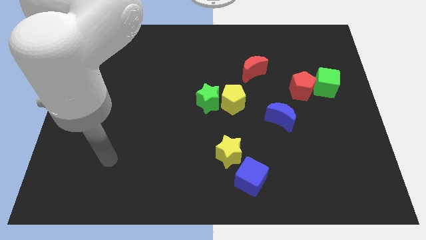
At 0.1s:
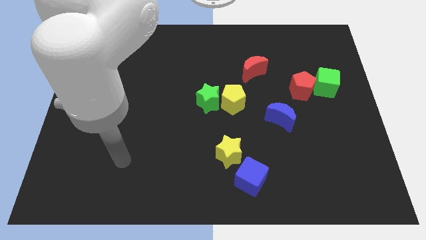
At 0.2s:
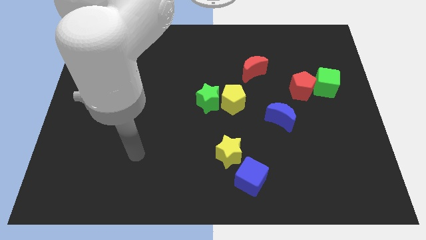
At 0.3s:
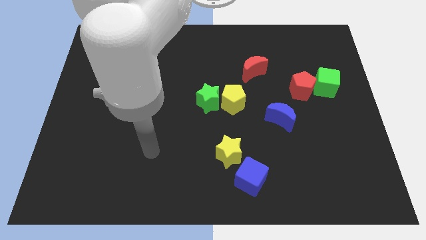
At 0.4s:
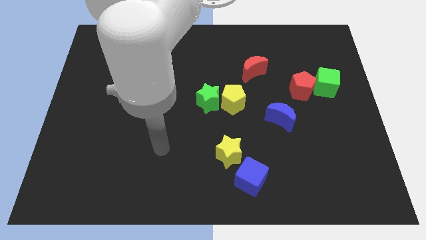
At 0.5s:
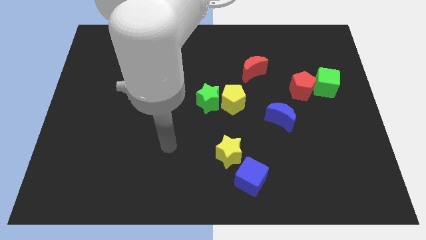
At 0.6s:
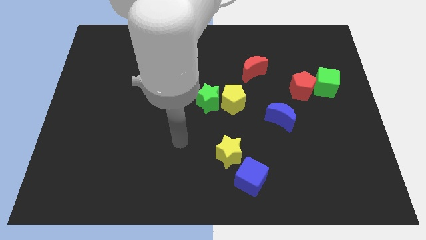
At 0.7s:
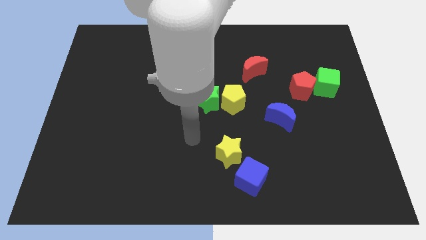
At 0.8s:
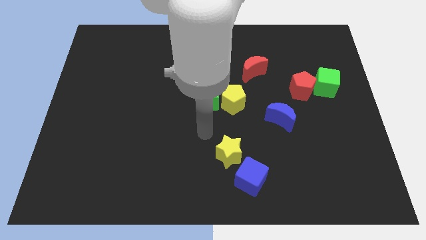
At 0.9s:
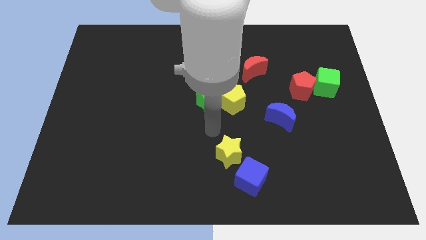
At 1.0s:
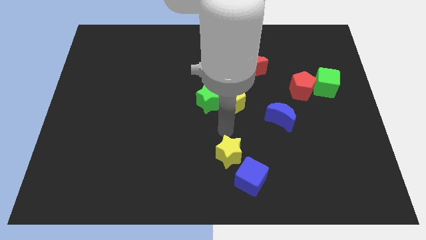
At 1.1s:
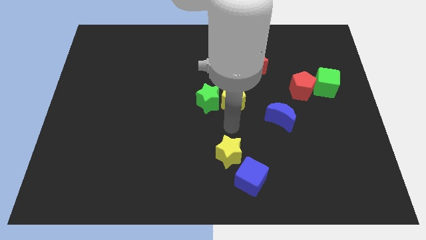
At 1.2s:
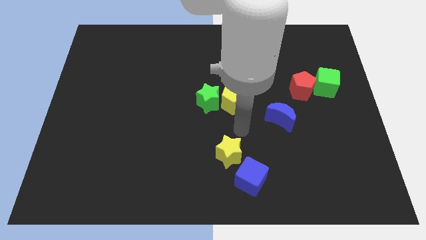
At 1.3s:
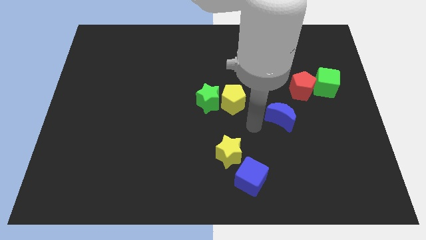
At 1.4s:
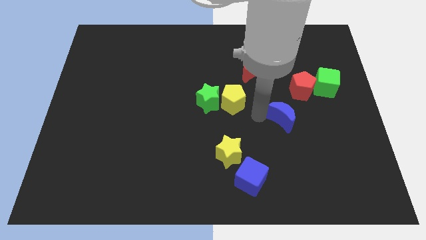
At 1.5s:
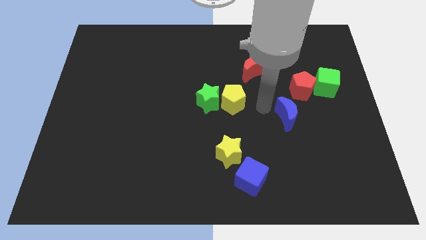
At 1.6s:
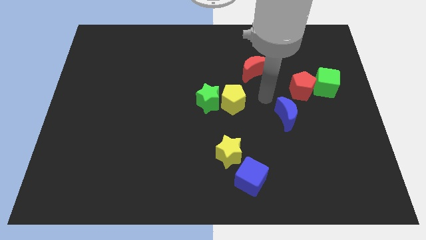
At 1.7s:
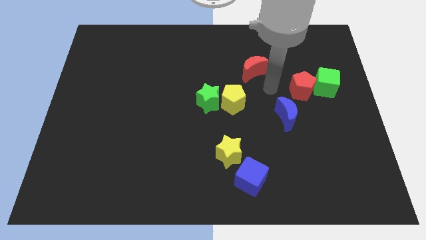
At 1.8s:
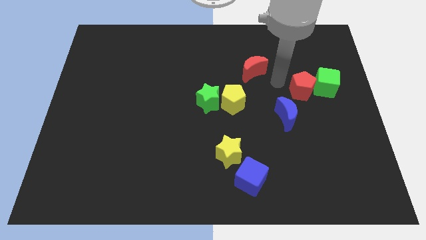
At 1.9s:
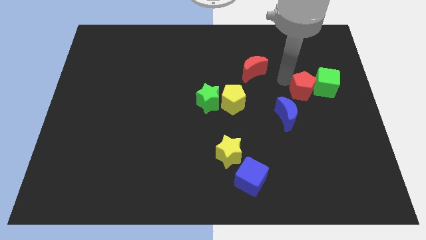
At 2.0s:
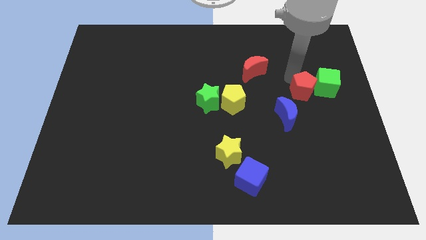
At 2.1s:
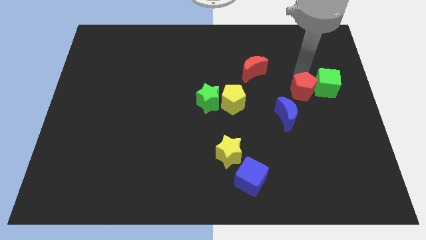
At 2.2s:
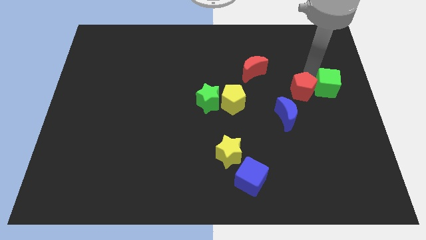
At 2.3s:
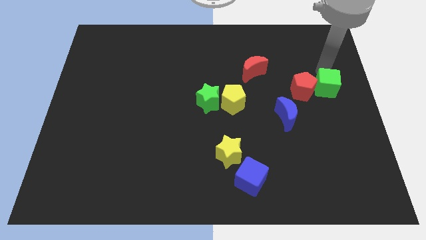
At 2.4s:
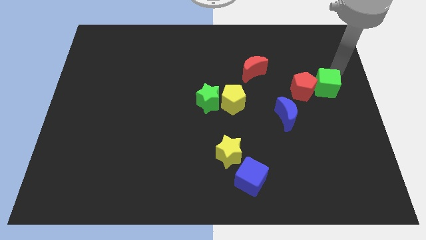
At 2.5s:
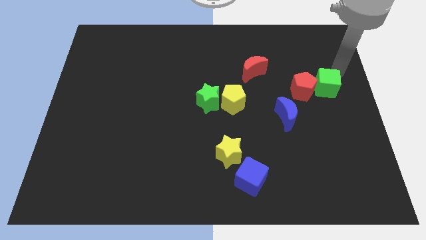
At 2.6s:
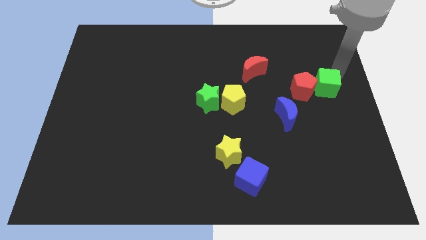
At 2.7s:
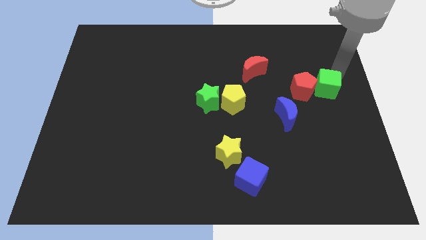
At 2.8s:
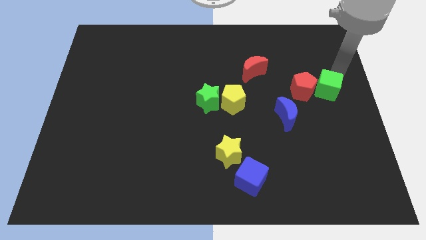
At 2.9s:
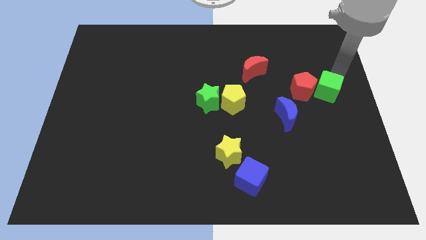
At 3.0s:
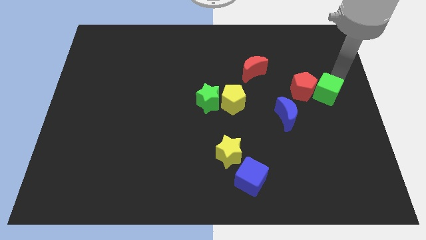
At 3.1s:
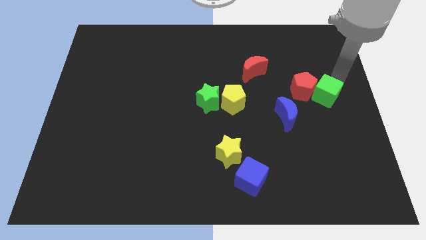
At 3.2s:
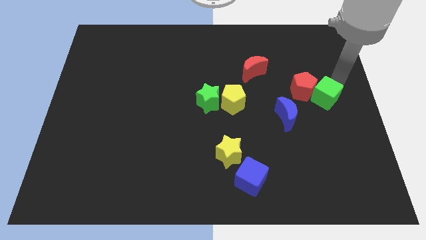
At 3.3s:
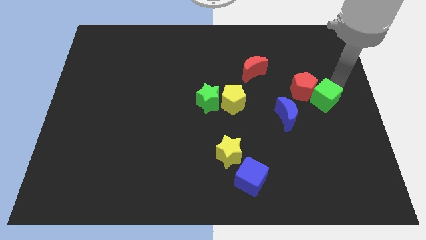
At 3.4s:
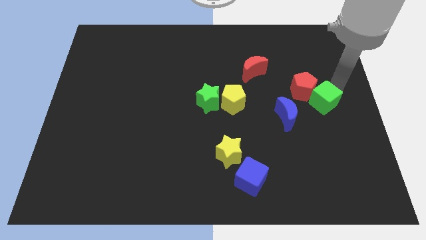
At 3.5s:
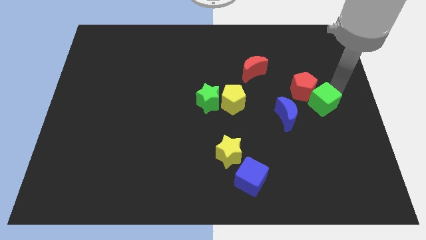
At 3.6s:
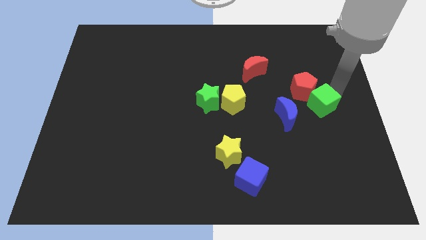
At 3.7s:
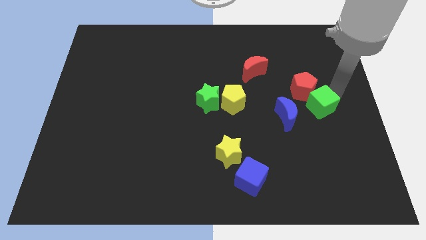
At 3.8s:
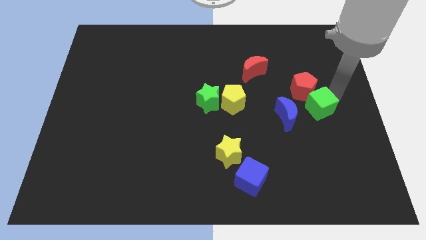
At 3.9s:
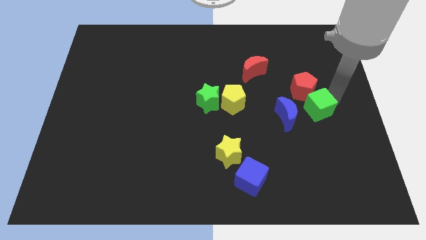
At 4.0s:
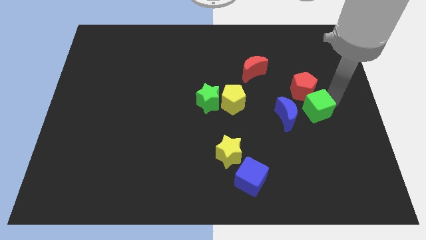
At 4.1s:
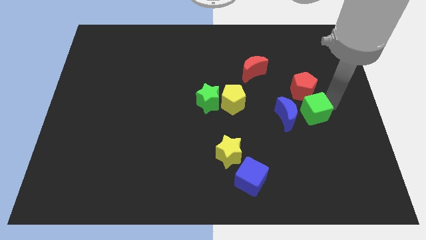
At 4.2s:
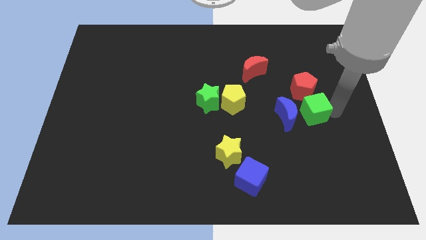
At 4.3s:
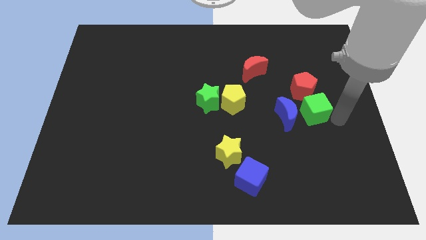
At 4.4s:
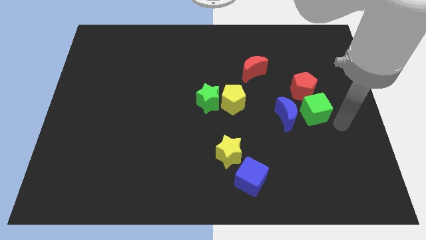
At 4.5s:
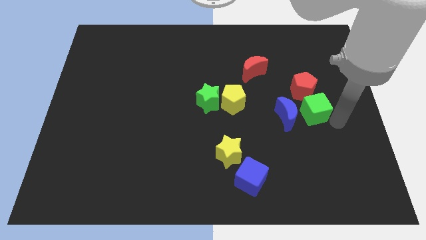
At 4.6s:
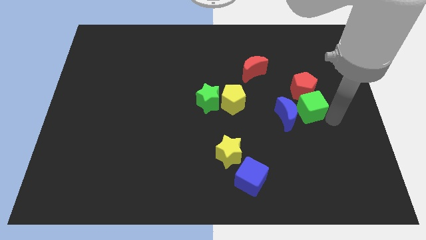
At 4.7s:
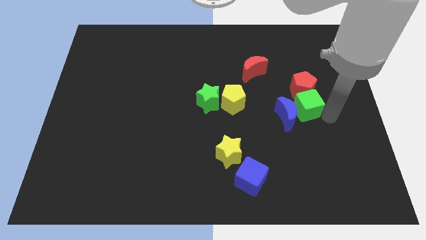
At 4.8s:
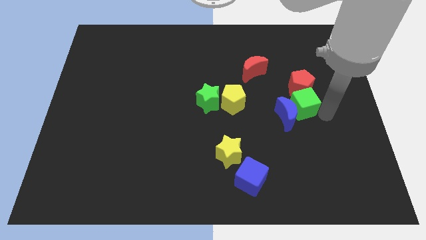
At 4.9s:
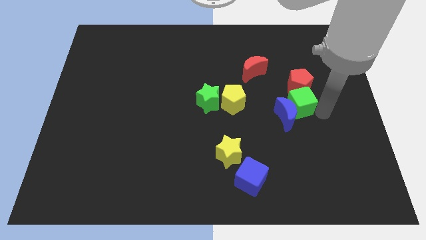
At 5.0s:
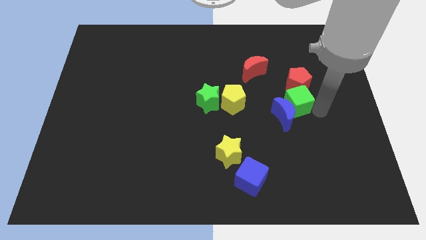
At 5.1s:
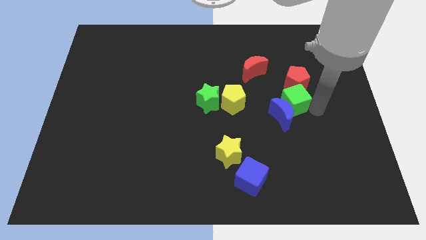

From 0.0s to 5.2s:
slightly slide the green cube left

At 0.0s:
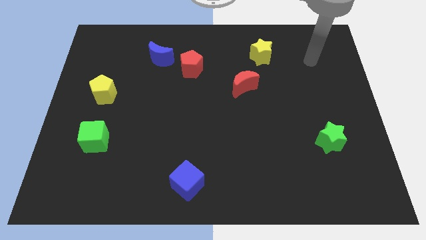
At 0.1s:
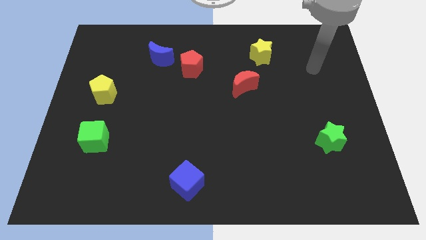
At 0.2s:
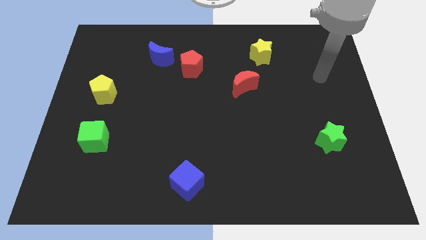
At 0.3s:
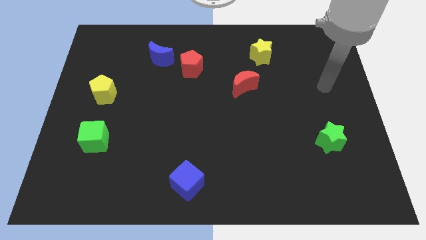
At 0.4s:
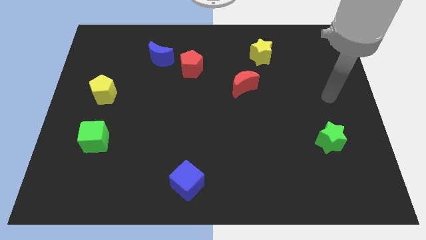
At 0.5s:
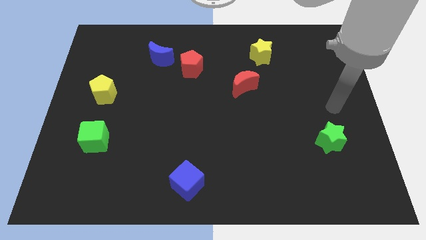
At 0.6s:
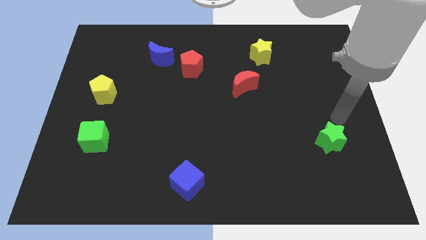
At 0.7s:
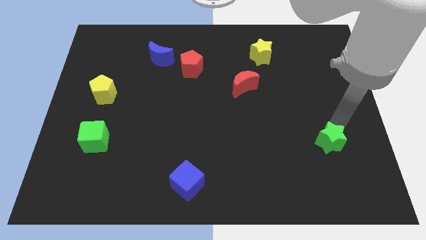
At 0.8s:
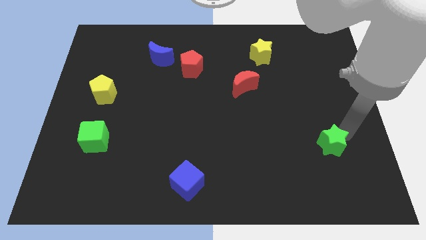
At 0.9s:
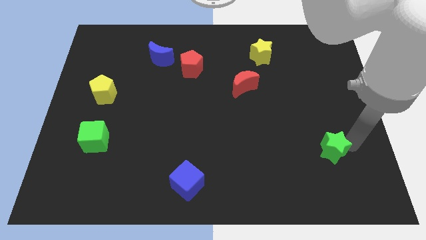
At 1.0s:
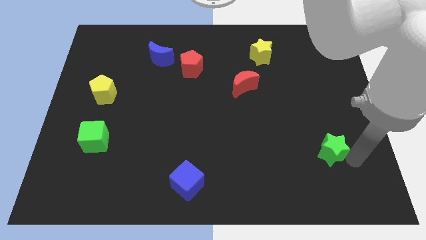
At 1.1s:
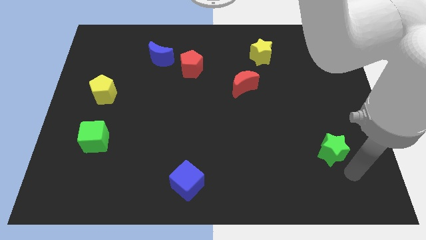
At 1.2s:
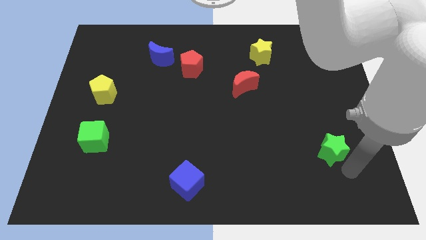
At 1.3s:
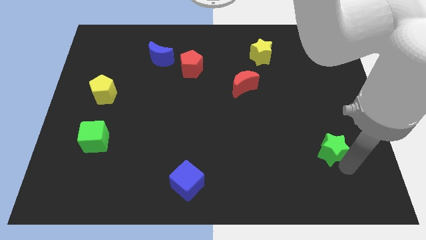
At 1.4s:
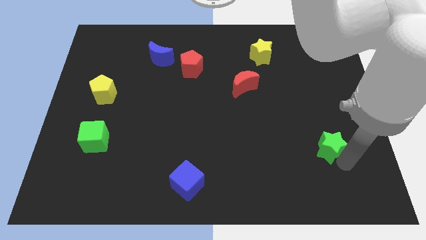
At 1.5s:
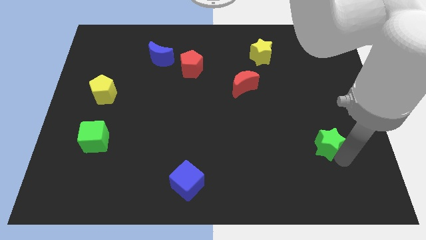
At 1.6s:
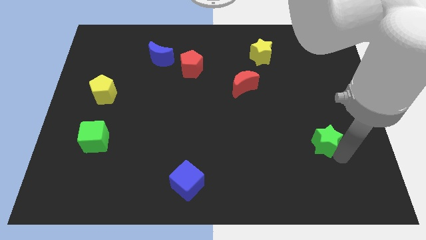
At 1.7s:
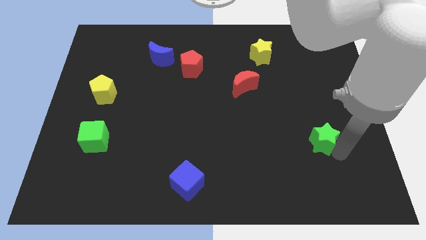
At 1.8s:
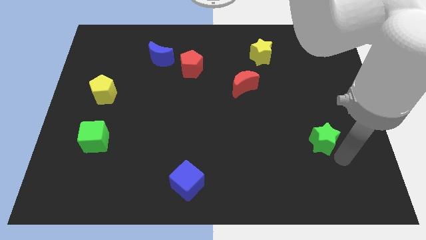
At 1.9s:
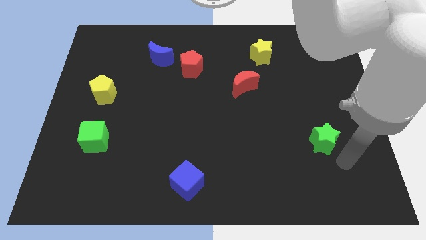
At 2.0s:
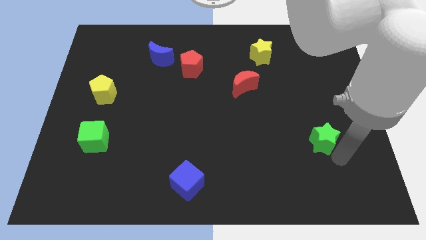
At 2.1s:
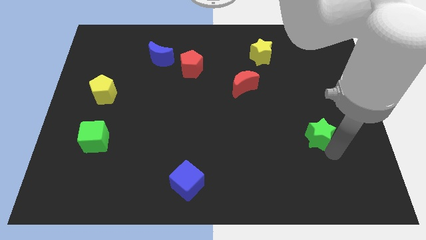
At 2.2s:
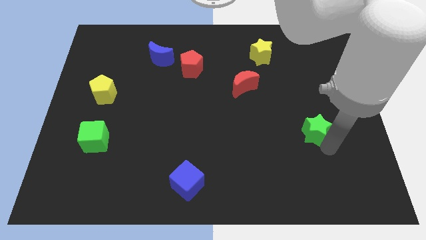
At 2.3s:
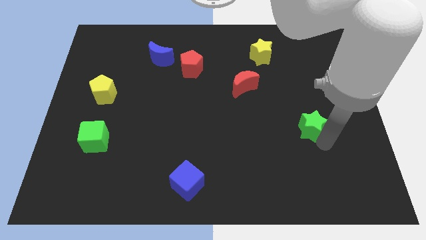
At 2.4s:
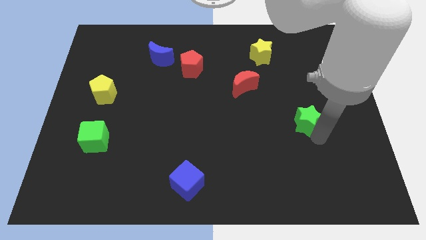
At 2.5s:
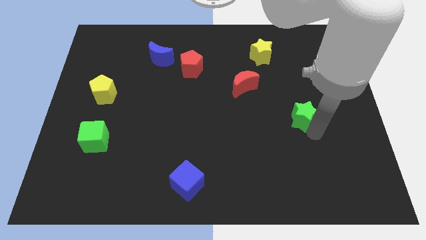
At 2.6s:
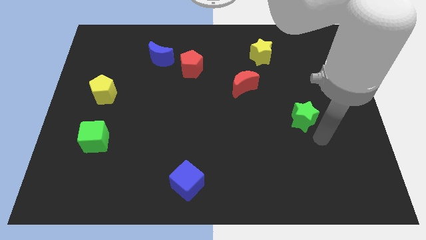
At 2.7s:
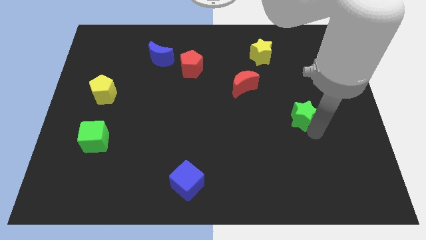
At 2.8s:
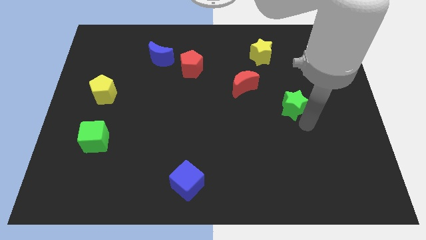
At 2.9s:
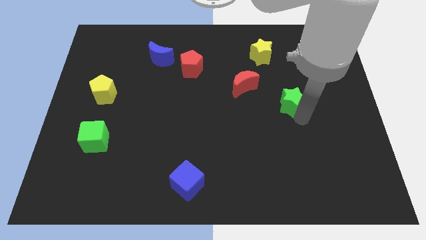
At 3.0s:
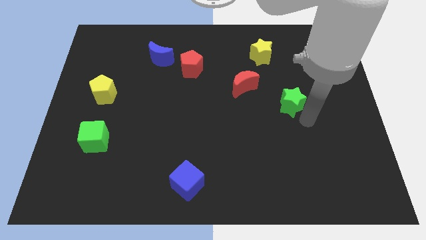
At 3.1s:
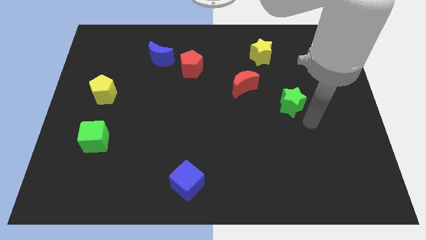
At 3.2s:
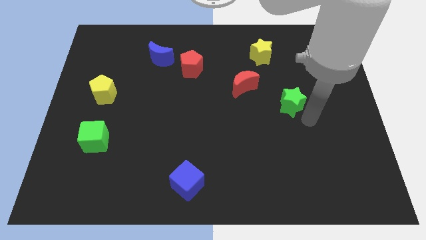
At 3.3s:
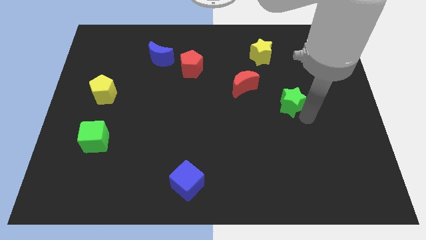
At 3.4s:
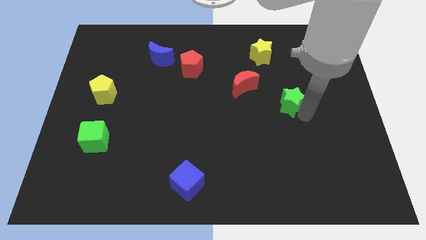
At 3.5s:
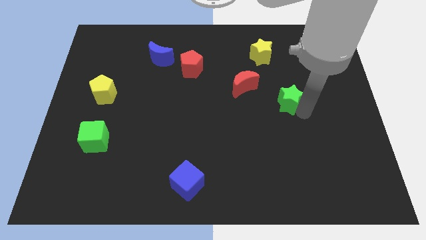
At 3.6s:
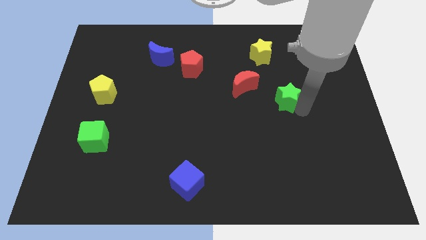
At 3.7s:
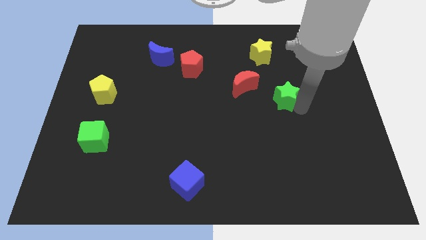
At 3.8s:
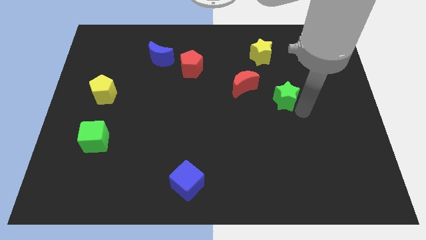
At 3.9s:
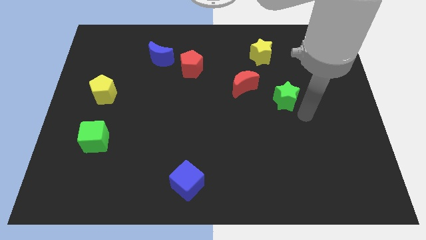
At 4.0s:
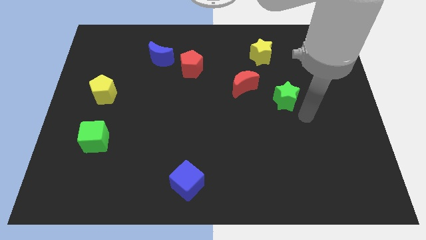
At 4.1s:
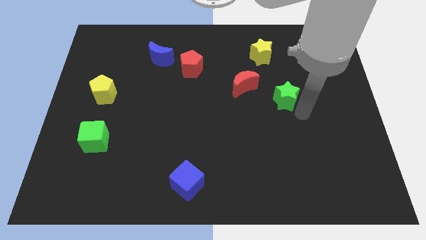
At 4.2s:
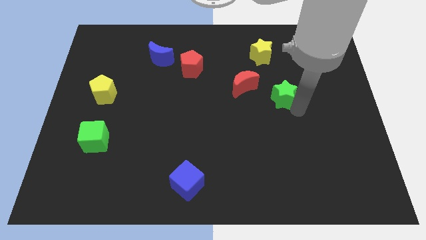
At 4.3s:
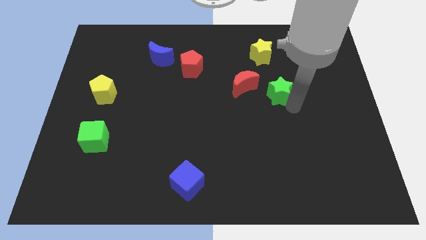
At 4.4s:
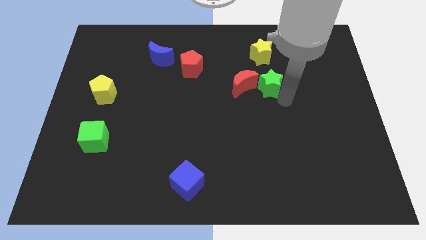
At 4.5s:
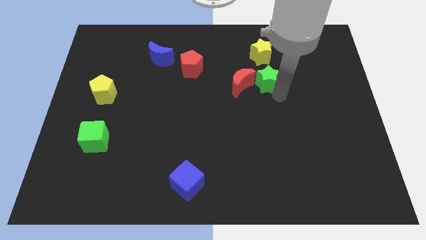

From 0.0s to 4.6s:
push the green star diagonally upwards and to the left
